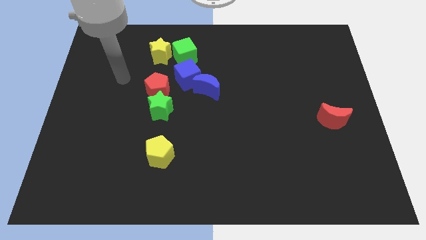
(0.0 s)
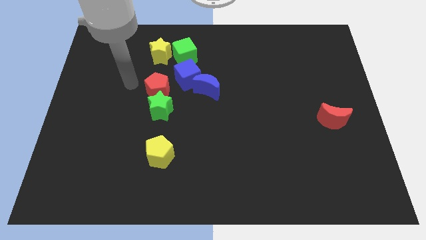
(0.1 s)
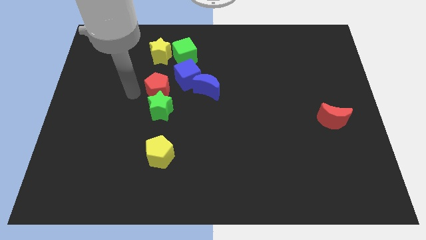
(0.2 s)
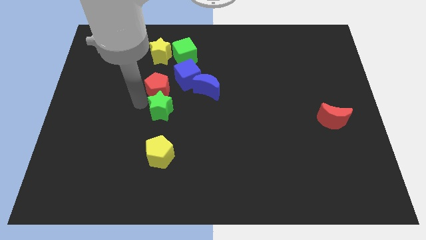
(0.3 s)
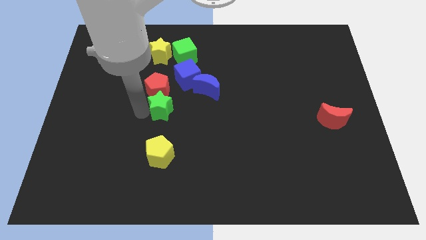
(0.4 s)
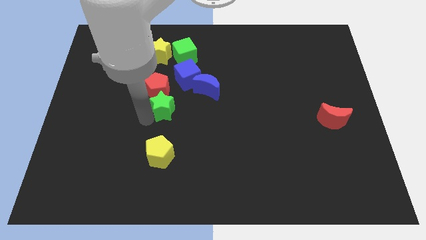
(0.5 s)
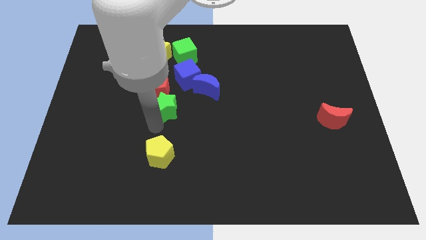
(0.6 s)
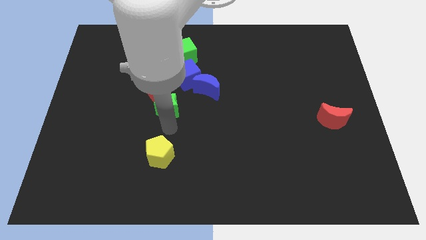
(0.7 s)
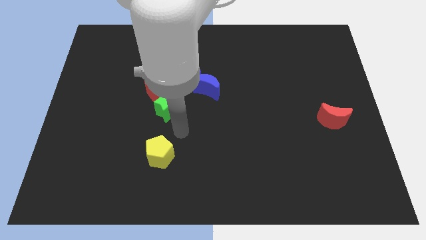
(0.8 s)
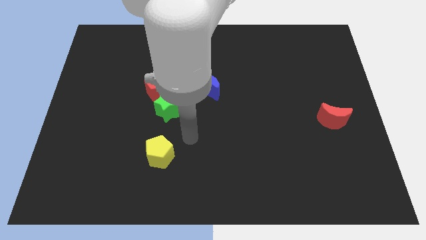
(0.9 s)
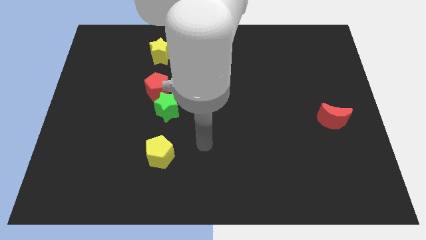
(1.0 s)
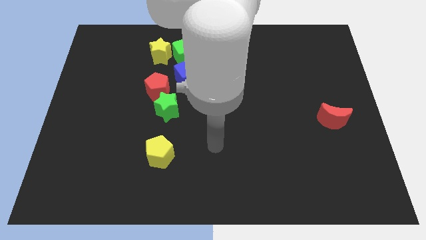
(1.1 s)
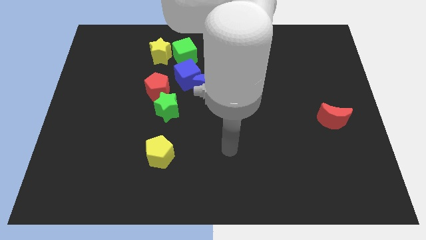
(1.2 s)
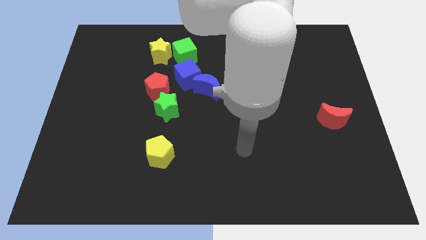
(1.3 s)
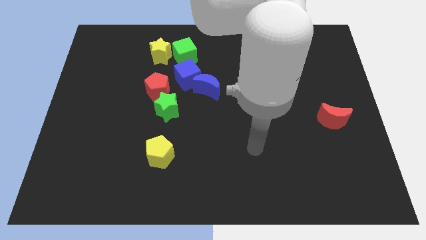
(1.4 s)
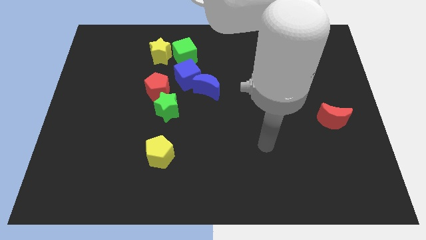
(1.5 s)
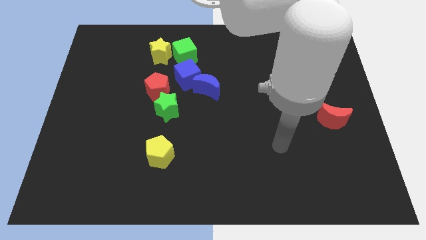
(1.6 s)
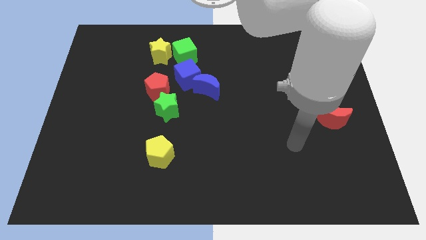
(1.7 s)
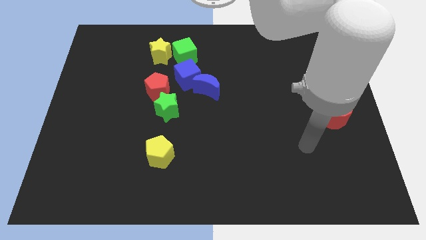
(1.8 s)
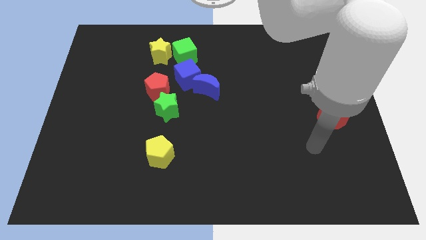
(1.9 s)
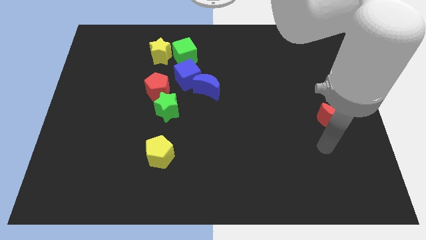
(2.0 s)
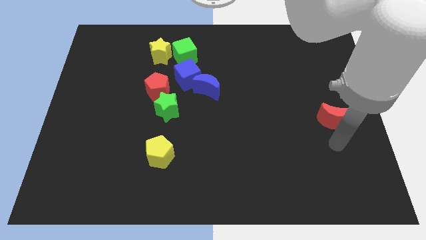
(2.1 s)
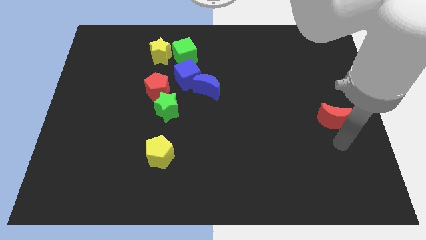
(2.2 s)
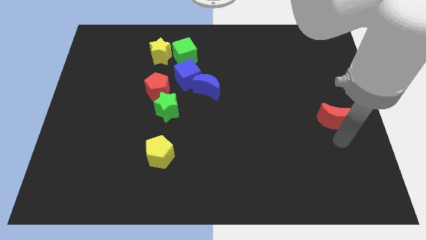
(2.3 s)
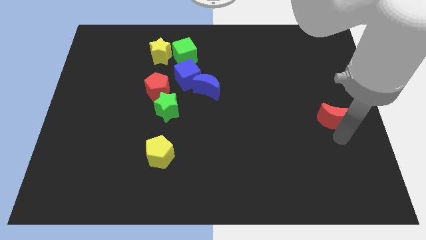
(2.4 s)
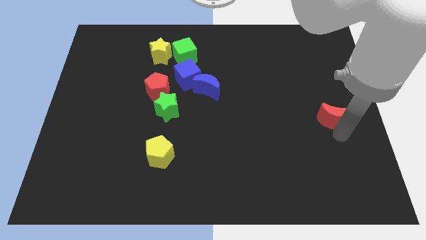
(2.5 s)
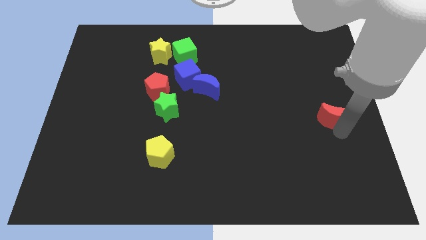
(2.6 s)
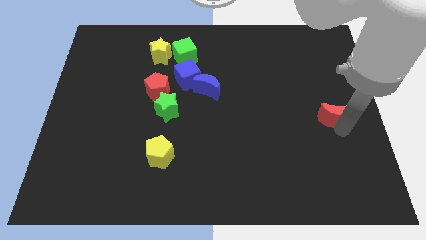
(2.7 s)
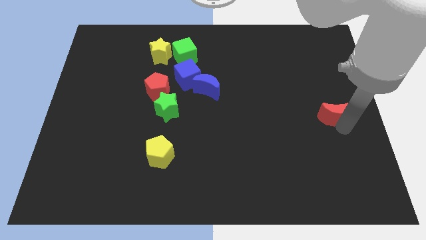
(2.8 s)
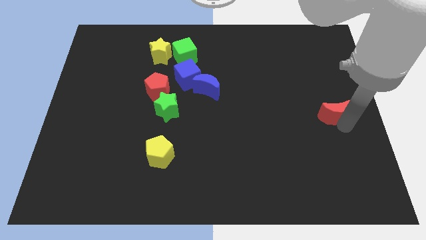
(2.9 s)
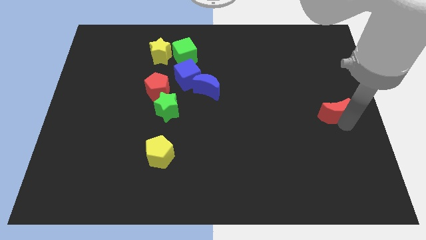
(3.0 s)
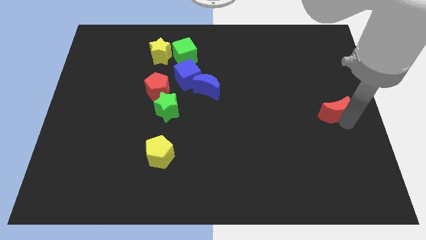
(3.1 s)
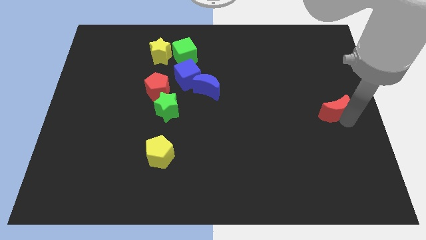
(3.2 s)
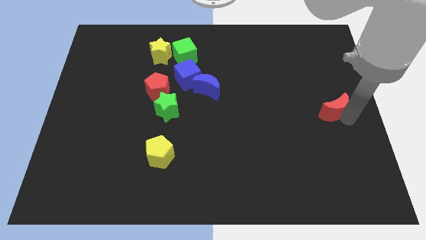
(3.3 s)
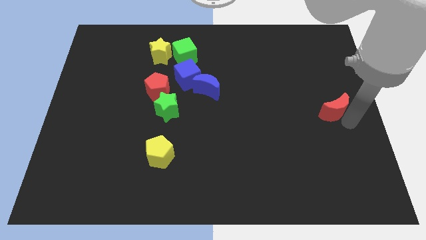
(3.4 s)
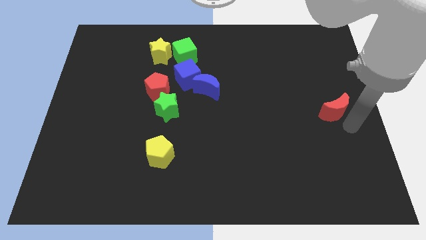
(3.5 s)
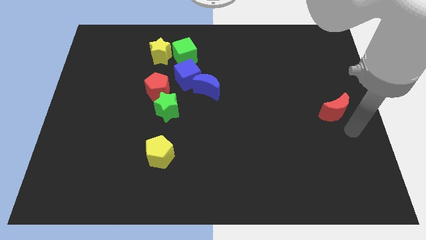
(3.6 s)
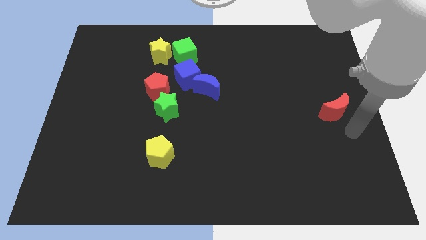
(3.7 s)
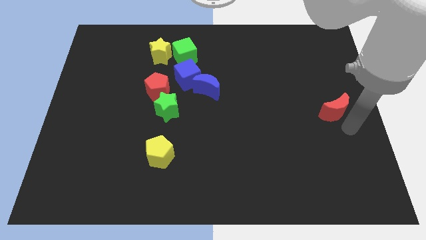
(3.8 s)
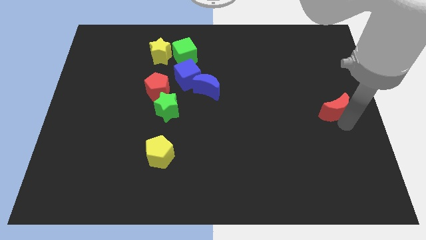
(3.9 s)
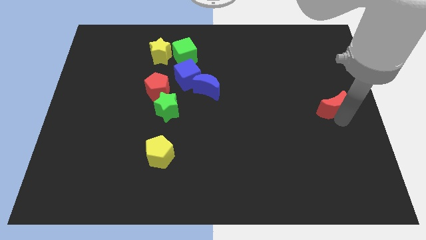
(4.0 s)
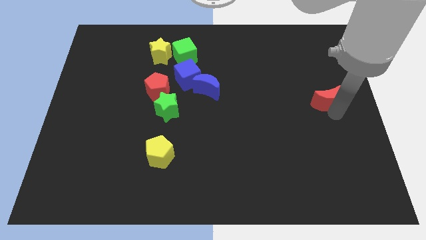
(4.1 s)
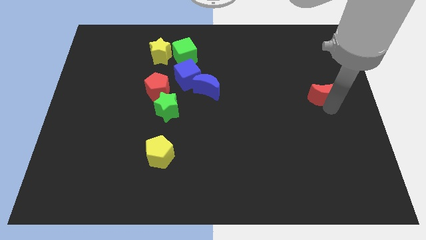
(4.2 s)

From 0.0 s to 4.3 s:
slide the red moon upwards a little

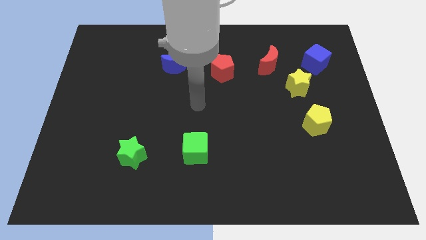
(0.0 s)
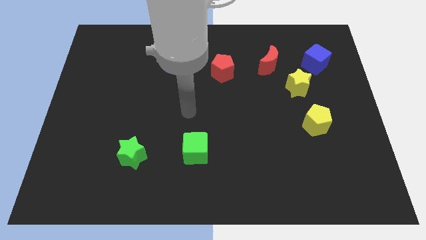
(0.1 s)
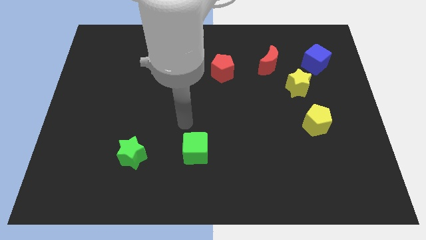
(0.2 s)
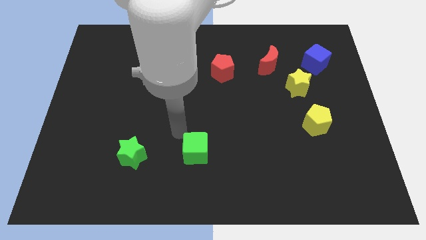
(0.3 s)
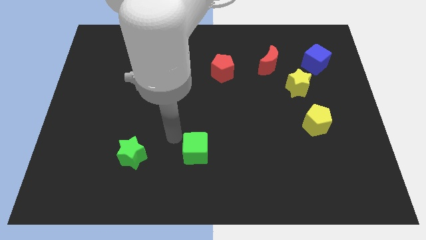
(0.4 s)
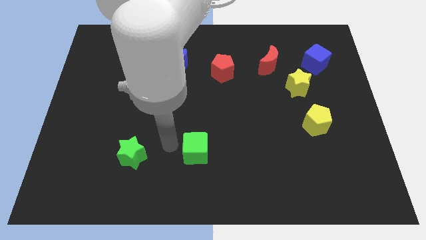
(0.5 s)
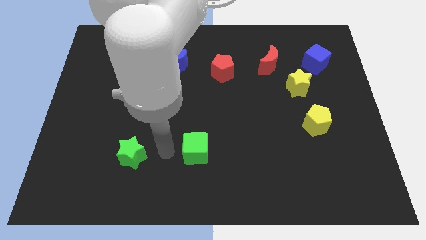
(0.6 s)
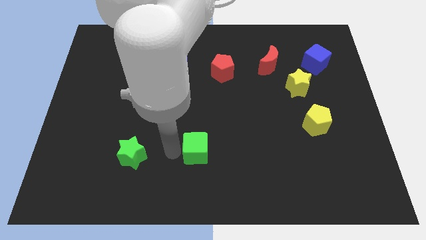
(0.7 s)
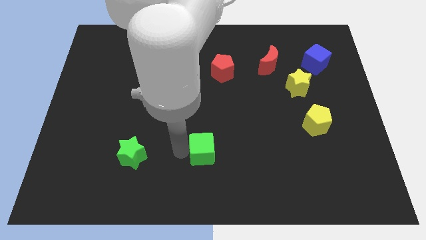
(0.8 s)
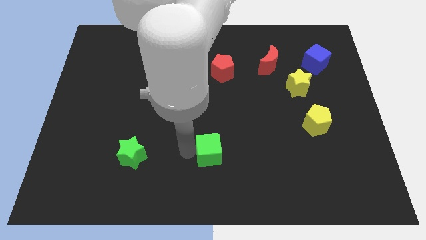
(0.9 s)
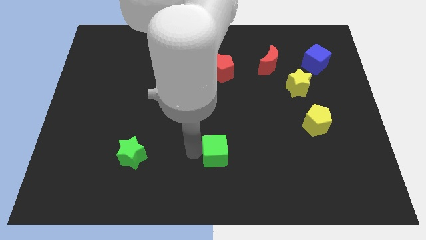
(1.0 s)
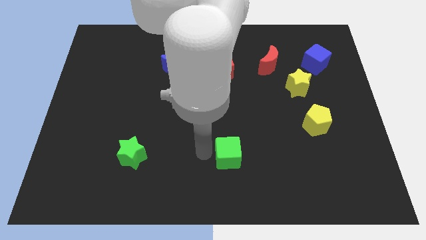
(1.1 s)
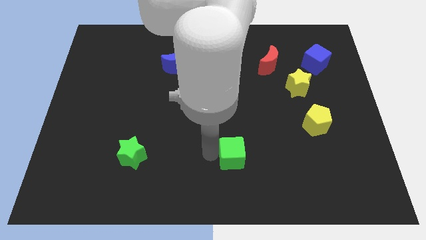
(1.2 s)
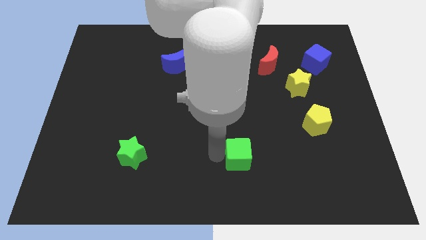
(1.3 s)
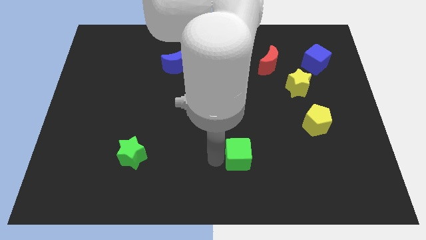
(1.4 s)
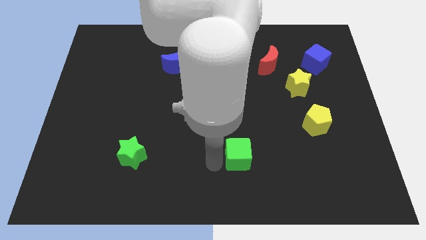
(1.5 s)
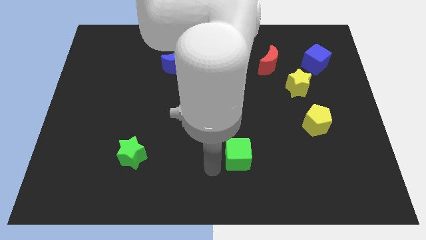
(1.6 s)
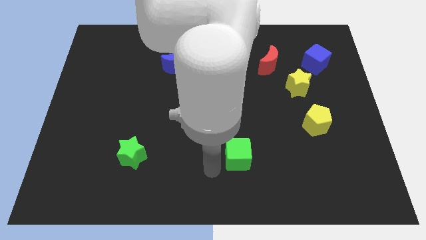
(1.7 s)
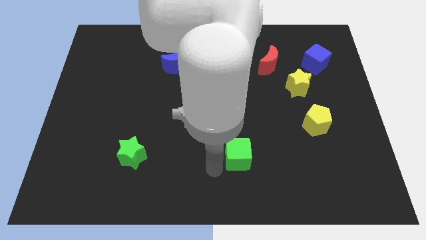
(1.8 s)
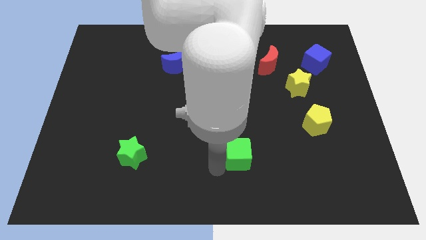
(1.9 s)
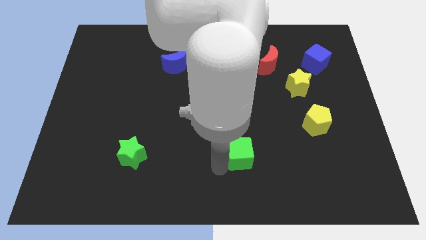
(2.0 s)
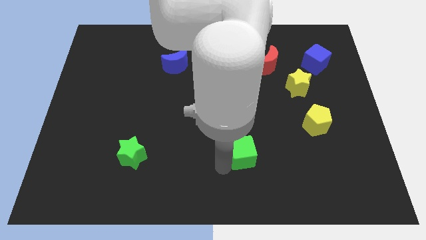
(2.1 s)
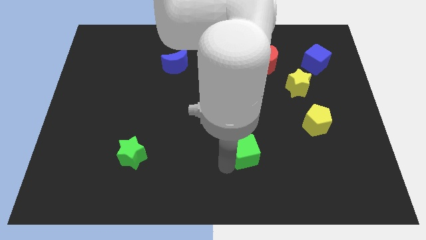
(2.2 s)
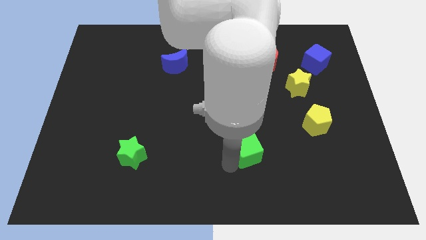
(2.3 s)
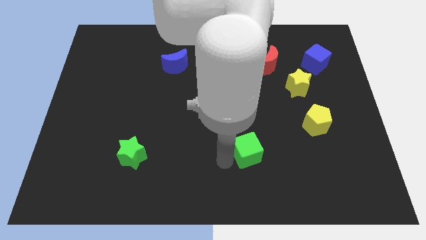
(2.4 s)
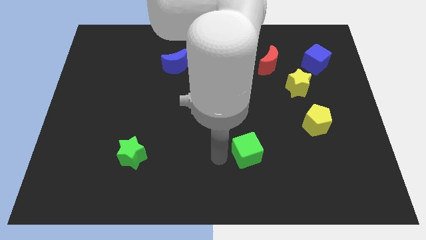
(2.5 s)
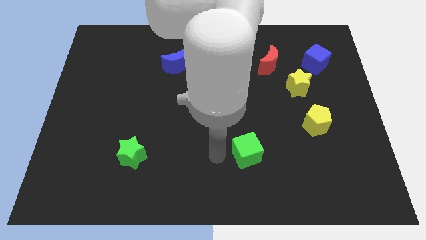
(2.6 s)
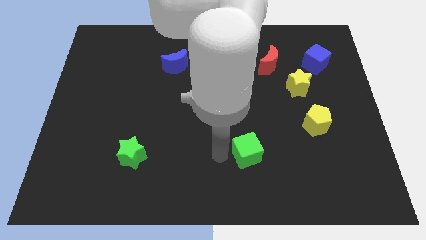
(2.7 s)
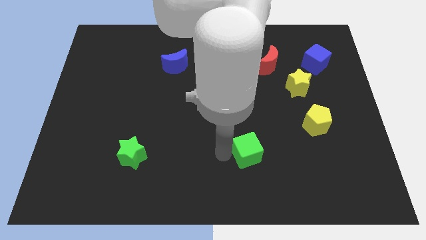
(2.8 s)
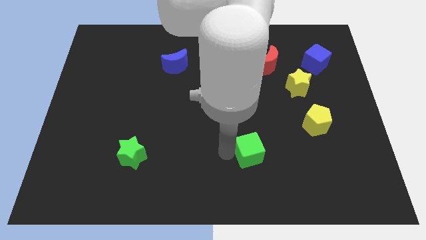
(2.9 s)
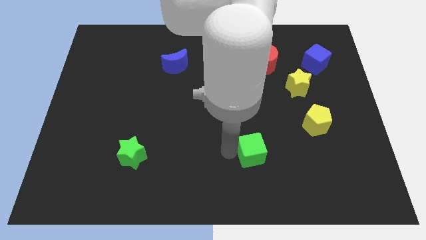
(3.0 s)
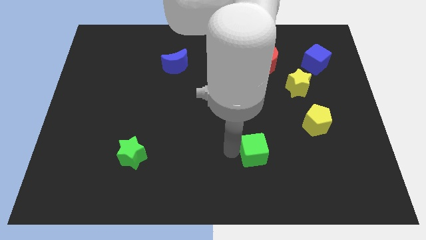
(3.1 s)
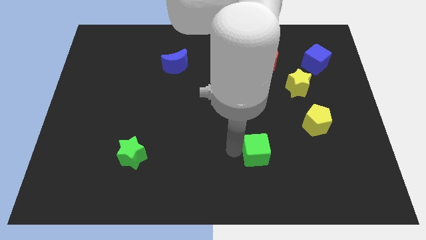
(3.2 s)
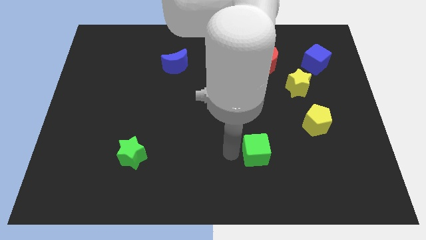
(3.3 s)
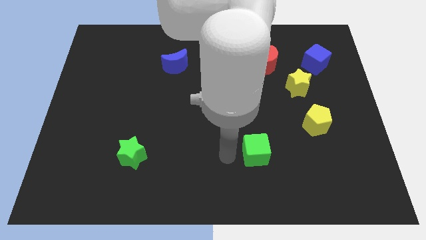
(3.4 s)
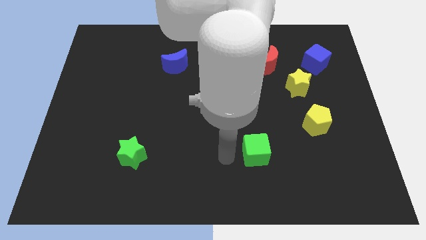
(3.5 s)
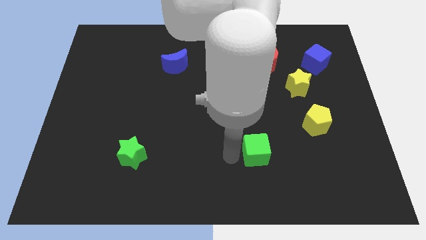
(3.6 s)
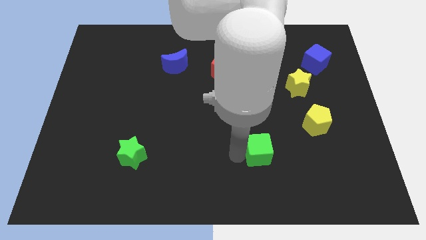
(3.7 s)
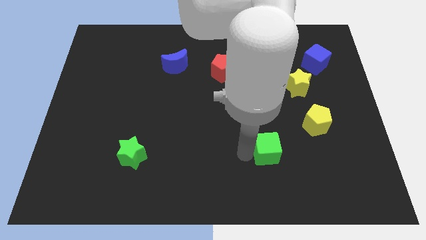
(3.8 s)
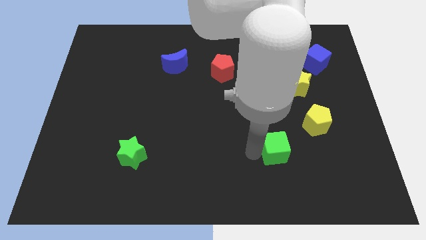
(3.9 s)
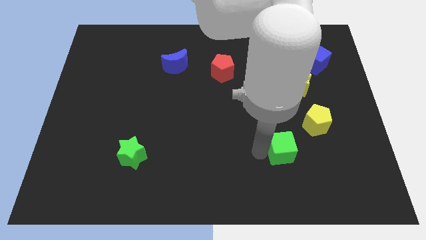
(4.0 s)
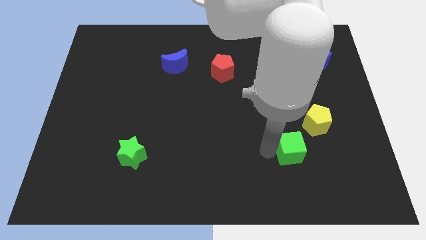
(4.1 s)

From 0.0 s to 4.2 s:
slide the green cube to the right
